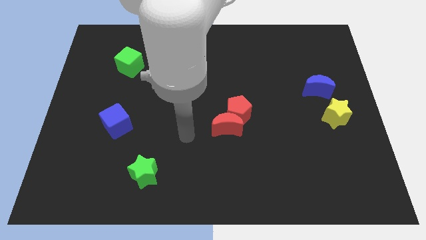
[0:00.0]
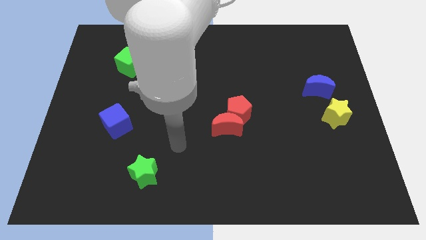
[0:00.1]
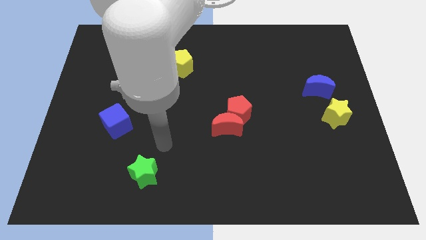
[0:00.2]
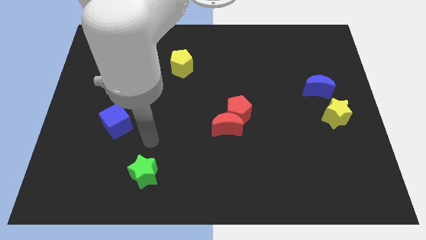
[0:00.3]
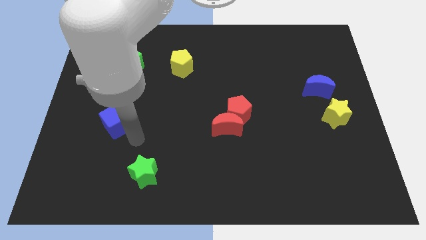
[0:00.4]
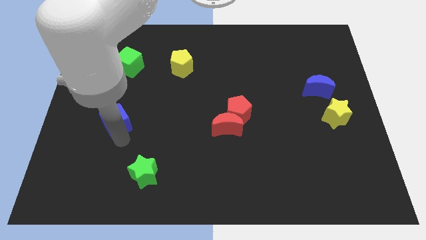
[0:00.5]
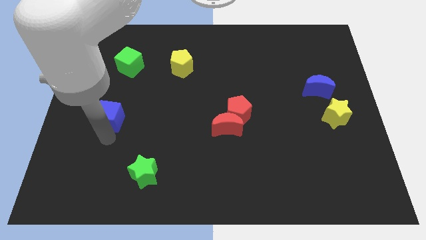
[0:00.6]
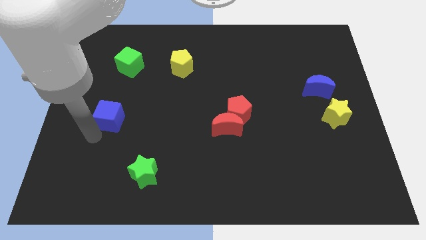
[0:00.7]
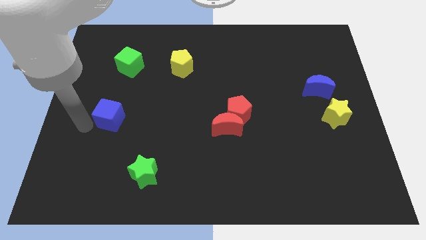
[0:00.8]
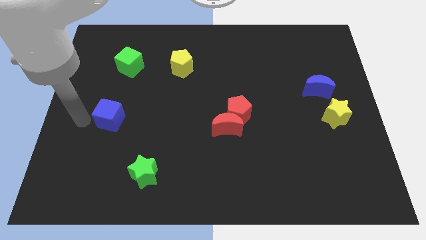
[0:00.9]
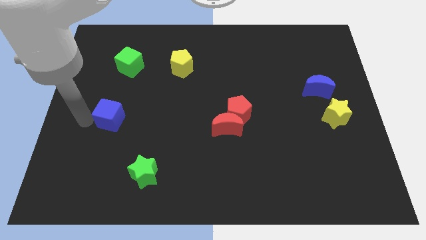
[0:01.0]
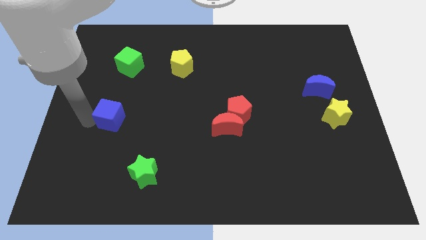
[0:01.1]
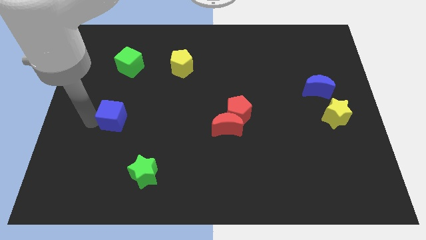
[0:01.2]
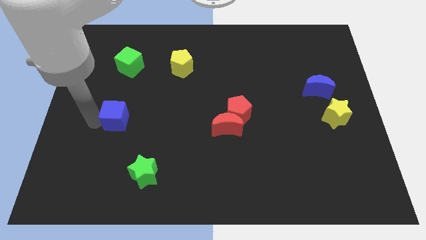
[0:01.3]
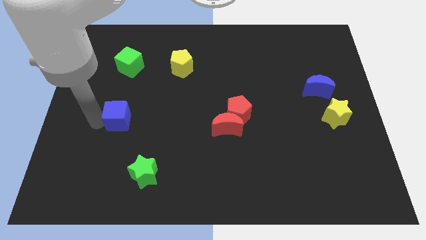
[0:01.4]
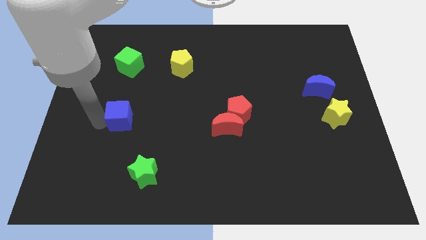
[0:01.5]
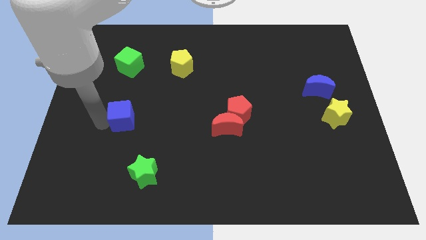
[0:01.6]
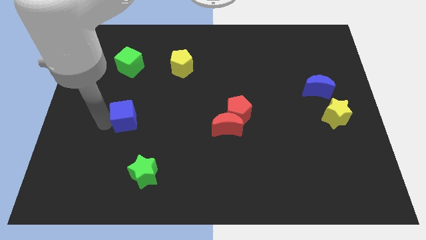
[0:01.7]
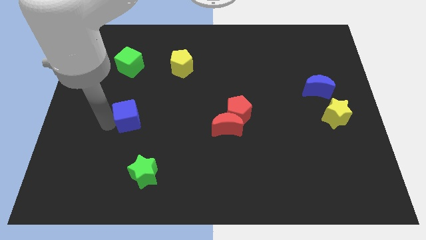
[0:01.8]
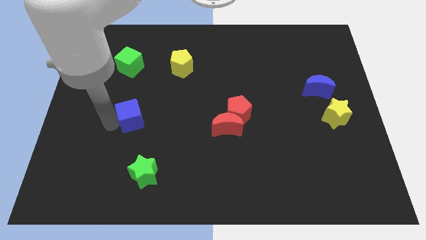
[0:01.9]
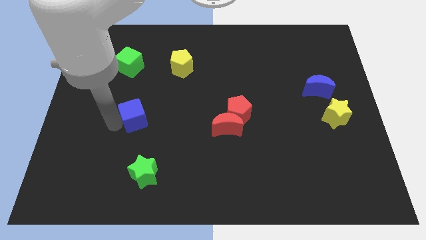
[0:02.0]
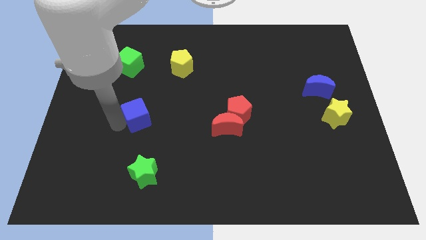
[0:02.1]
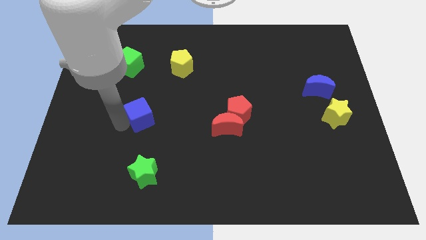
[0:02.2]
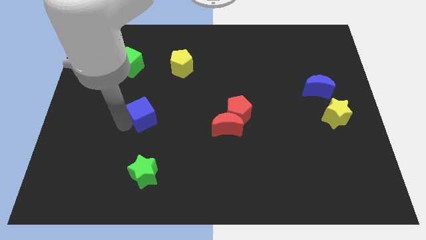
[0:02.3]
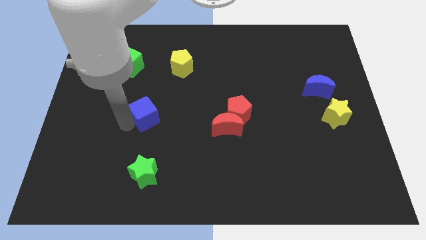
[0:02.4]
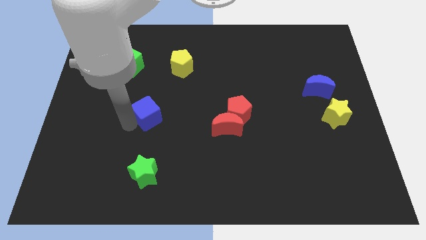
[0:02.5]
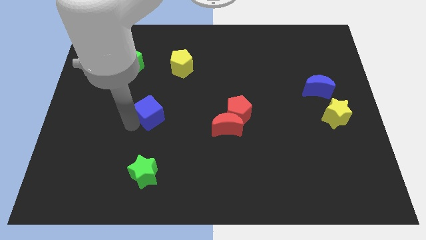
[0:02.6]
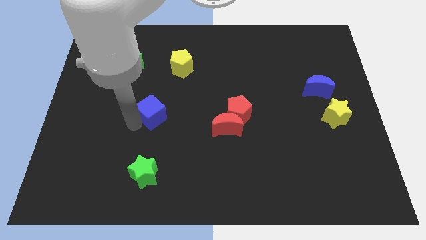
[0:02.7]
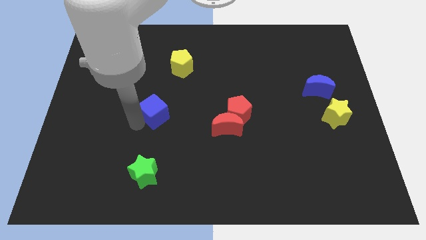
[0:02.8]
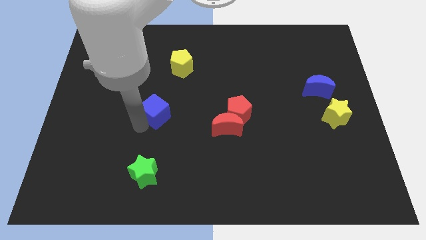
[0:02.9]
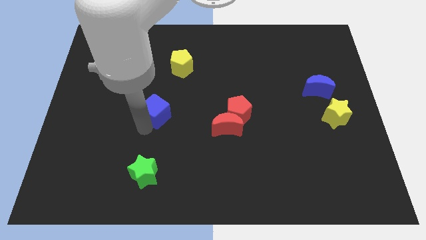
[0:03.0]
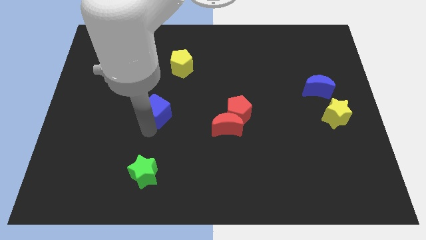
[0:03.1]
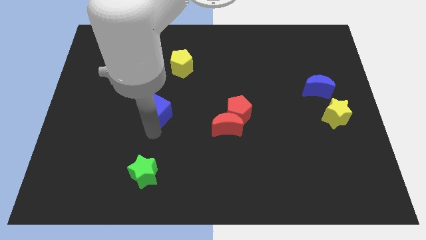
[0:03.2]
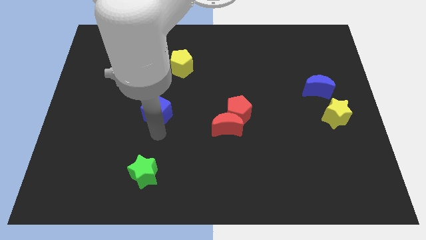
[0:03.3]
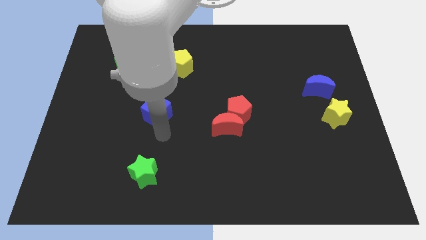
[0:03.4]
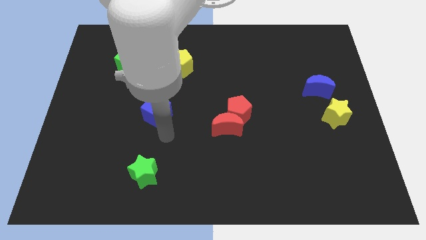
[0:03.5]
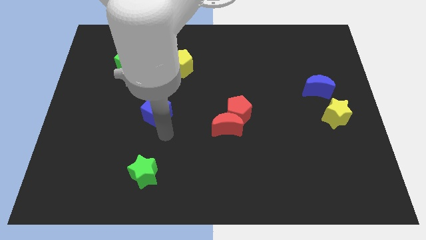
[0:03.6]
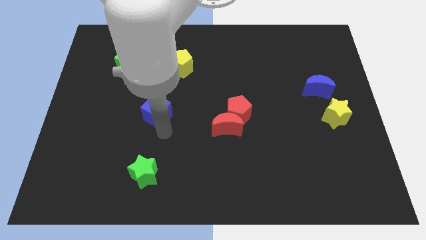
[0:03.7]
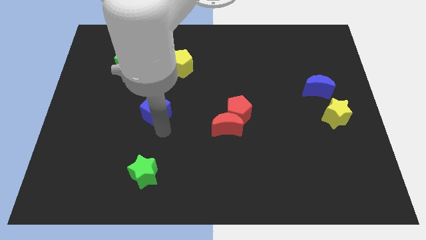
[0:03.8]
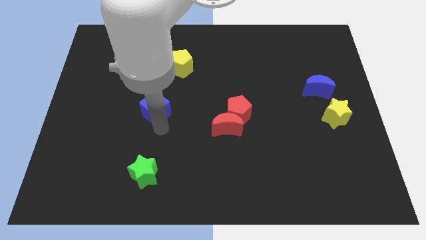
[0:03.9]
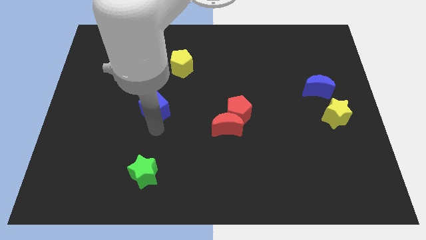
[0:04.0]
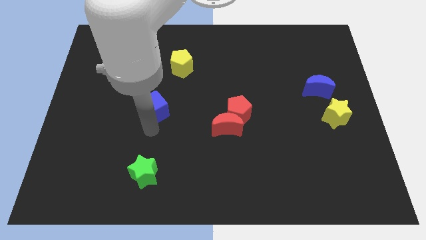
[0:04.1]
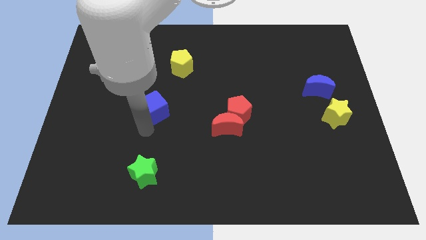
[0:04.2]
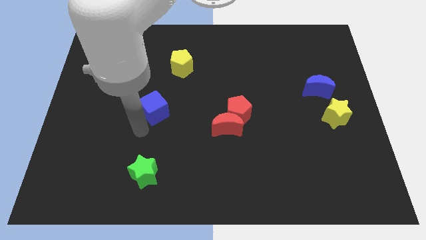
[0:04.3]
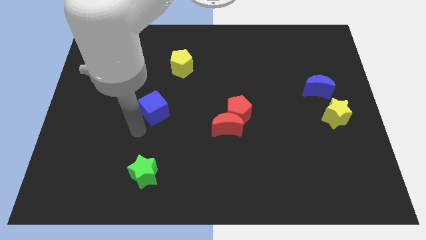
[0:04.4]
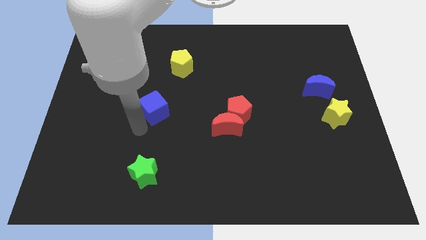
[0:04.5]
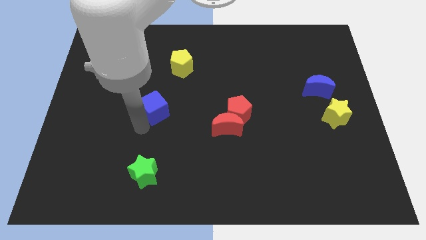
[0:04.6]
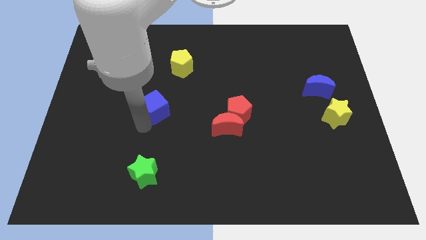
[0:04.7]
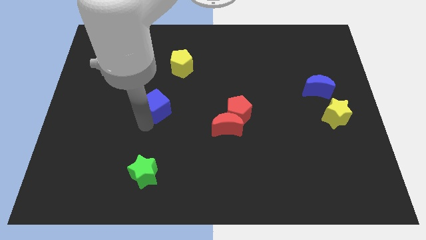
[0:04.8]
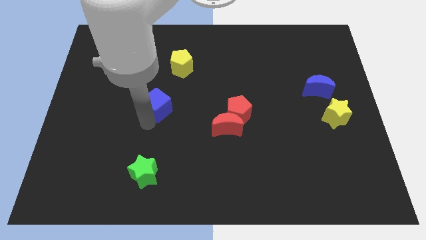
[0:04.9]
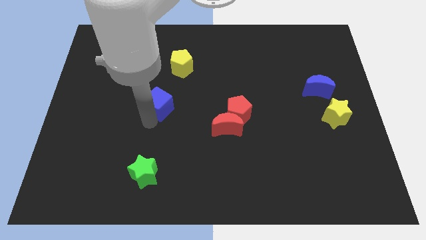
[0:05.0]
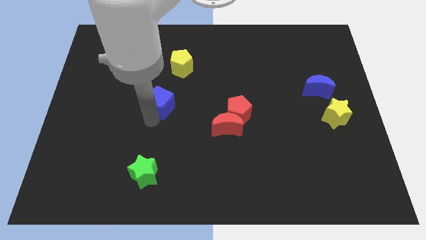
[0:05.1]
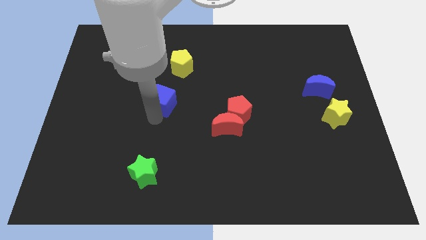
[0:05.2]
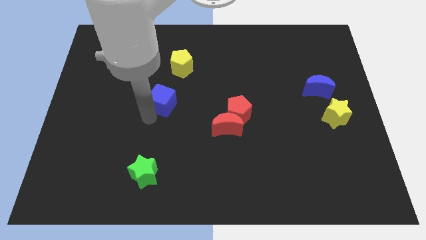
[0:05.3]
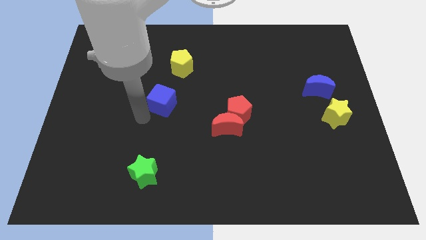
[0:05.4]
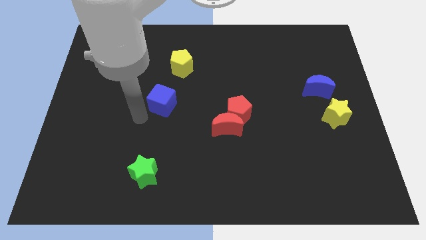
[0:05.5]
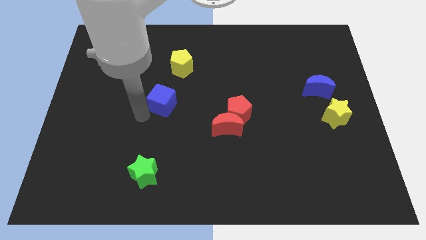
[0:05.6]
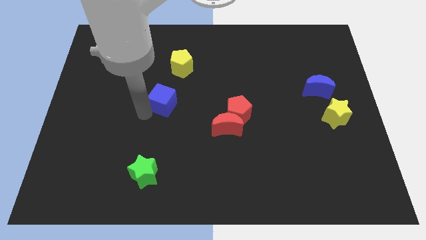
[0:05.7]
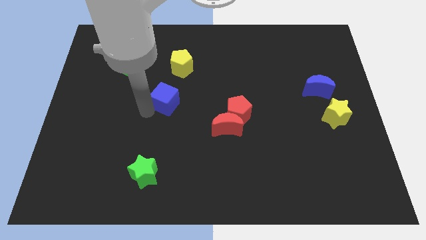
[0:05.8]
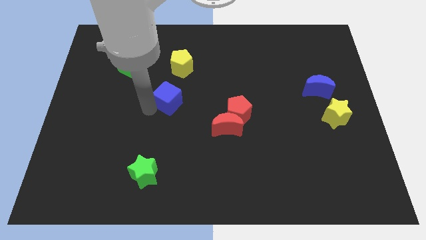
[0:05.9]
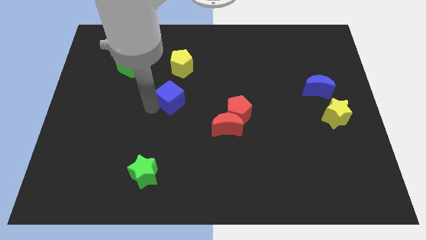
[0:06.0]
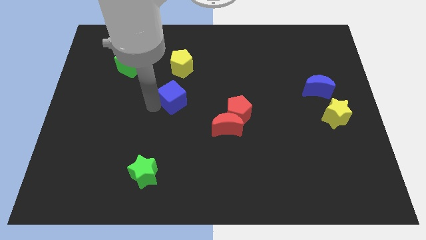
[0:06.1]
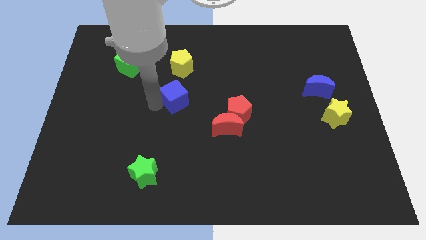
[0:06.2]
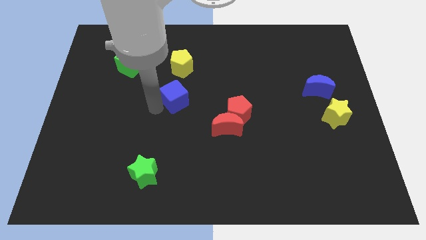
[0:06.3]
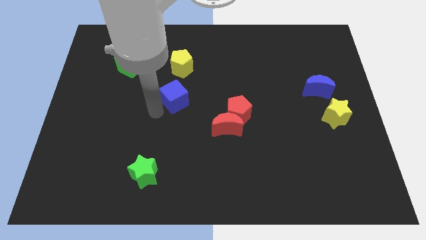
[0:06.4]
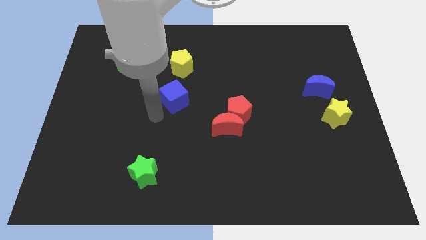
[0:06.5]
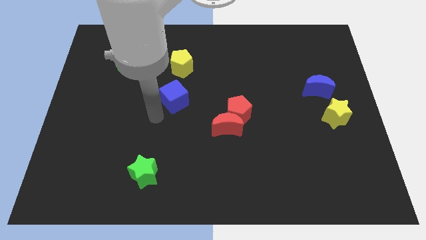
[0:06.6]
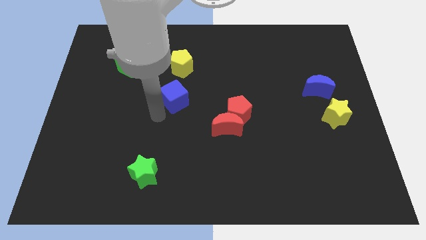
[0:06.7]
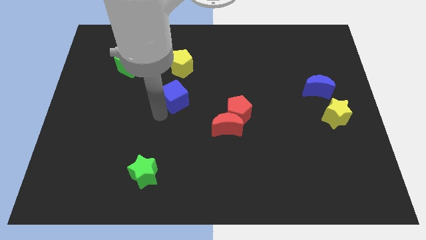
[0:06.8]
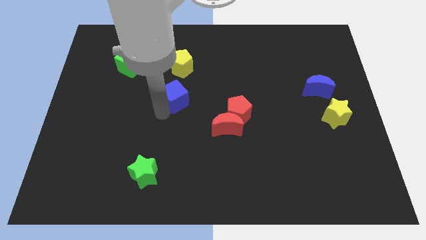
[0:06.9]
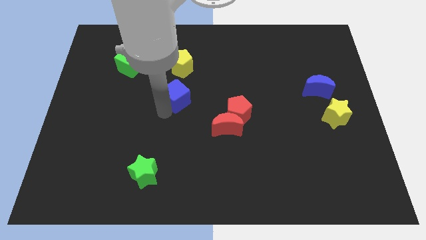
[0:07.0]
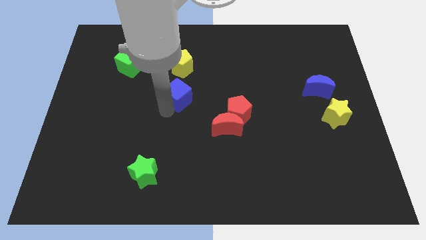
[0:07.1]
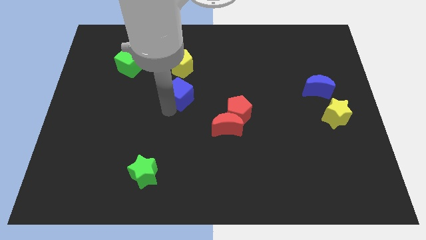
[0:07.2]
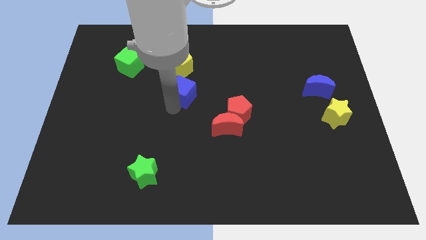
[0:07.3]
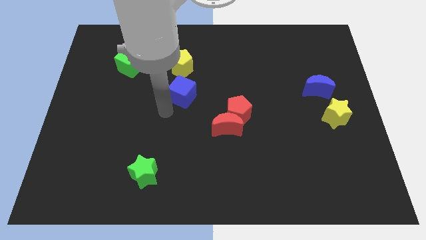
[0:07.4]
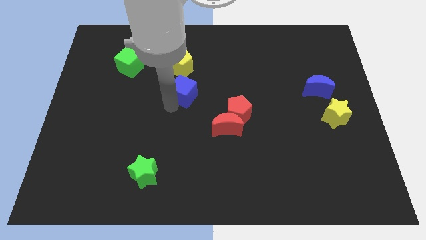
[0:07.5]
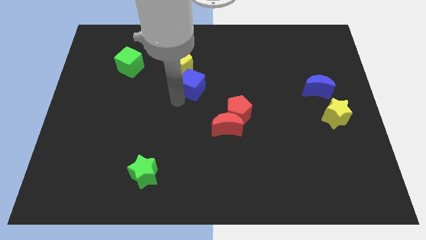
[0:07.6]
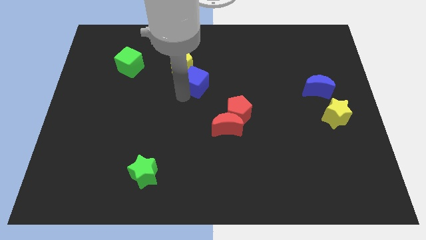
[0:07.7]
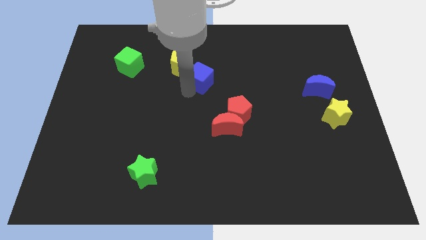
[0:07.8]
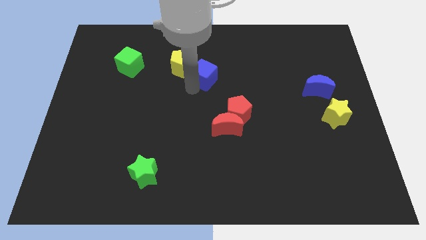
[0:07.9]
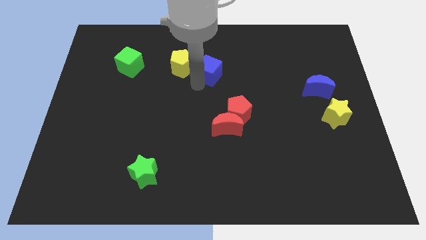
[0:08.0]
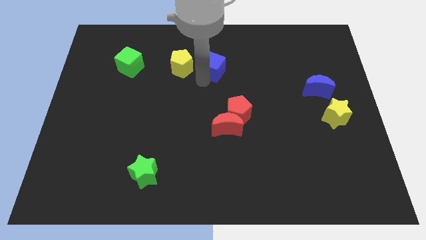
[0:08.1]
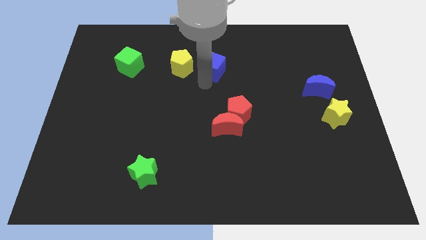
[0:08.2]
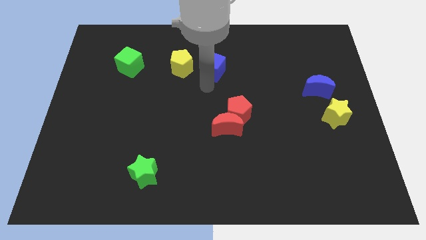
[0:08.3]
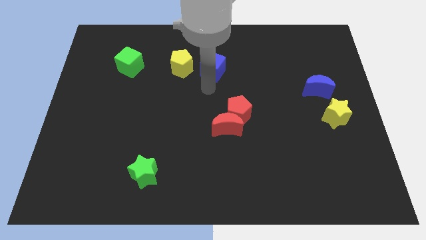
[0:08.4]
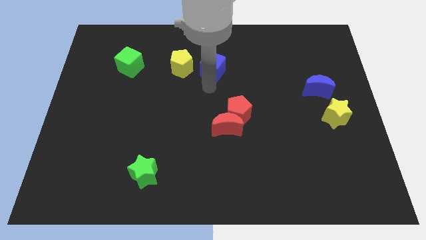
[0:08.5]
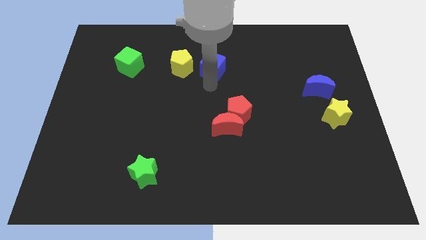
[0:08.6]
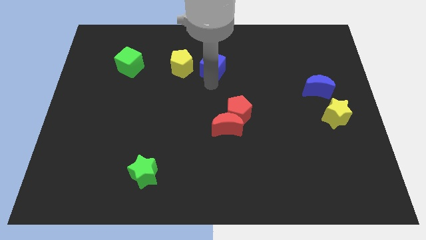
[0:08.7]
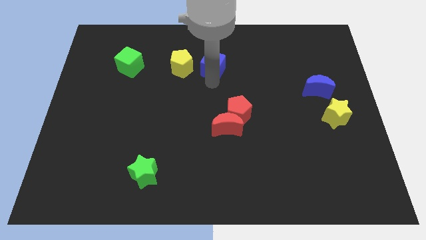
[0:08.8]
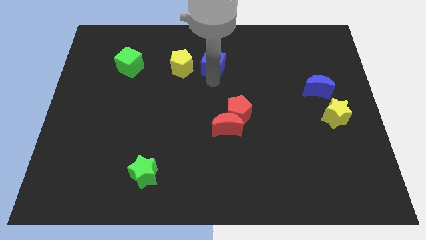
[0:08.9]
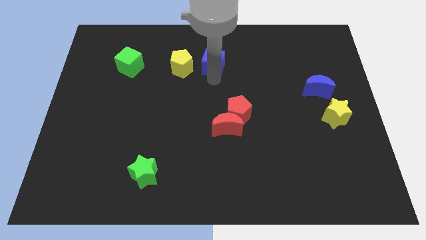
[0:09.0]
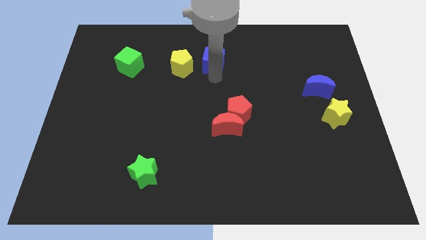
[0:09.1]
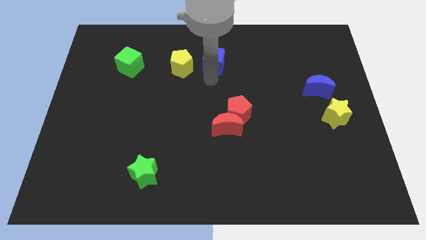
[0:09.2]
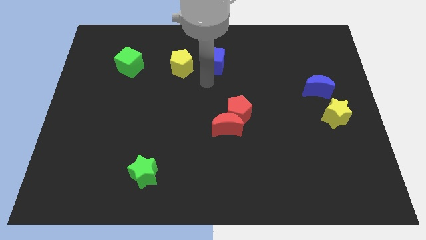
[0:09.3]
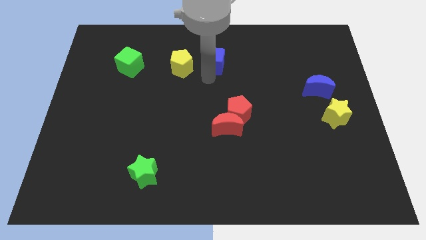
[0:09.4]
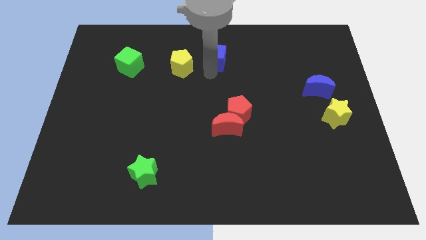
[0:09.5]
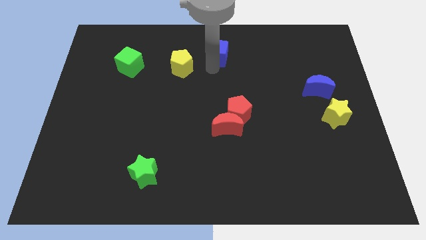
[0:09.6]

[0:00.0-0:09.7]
push the blue cube to the top side
